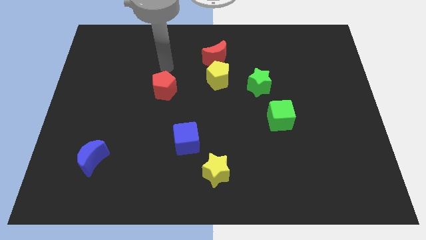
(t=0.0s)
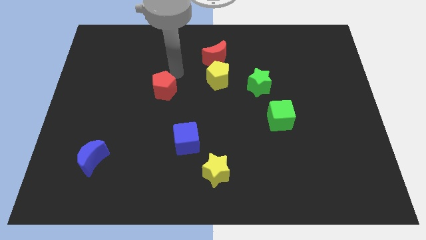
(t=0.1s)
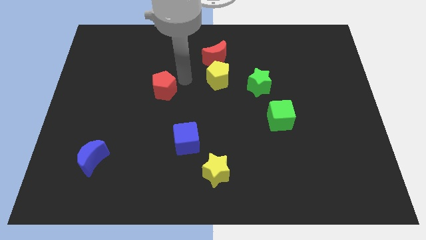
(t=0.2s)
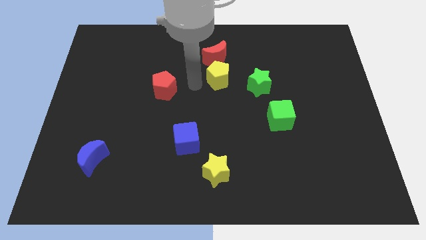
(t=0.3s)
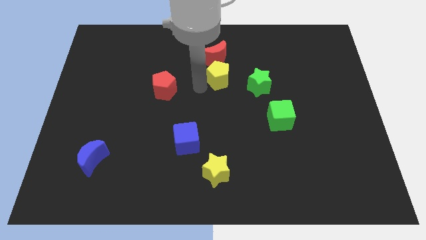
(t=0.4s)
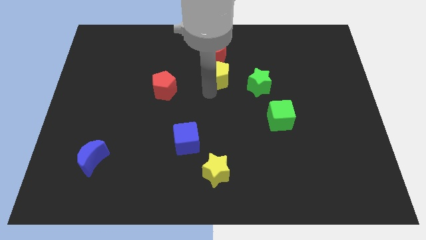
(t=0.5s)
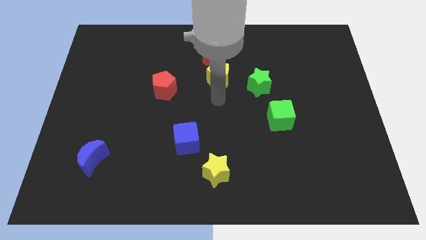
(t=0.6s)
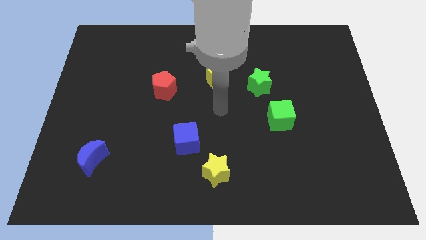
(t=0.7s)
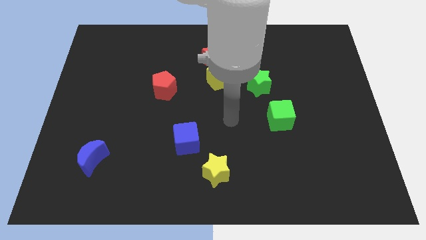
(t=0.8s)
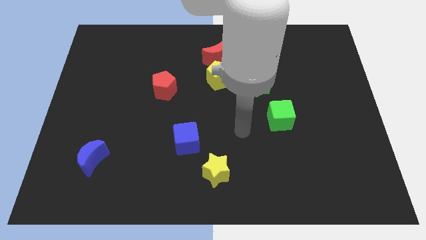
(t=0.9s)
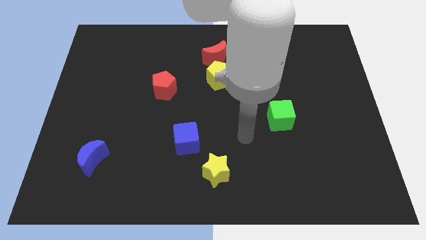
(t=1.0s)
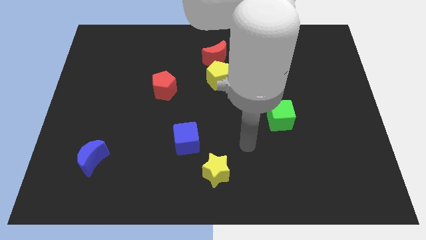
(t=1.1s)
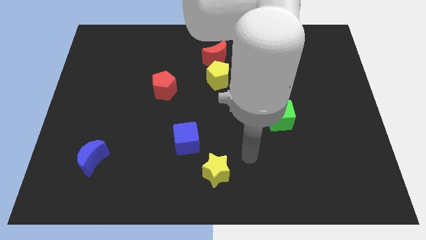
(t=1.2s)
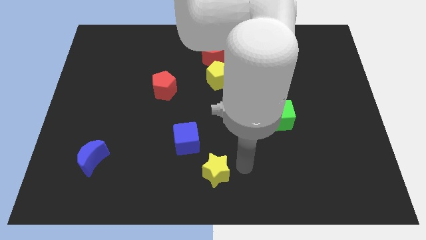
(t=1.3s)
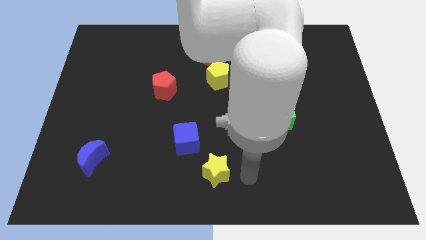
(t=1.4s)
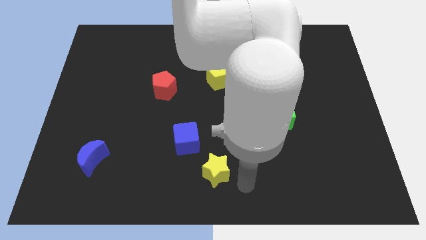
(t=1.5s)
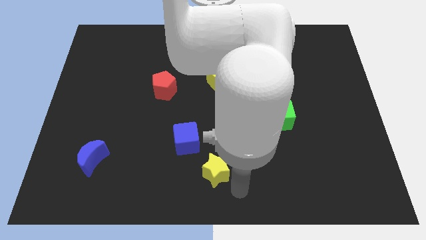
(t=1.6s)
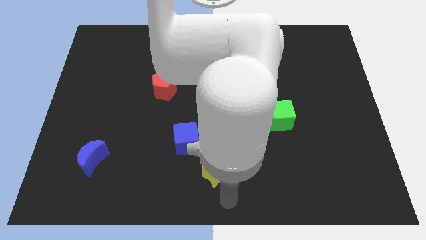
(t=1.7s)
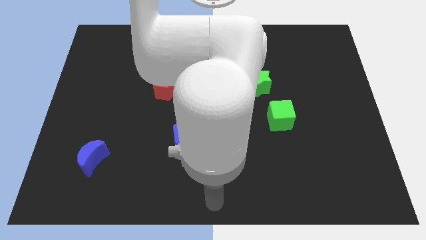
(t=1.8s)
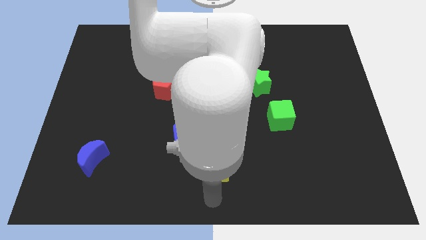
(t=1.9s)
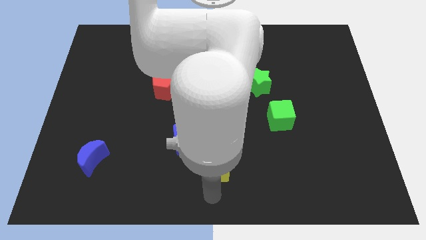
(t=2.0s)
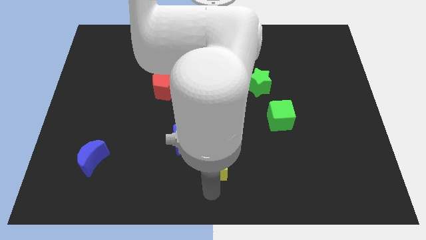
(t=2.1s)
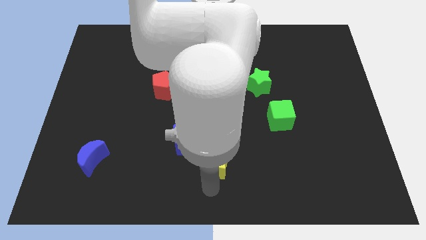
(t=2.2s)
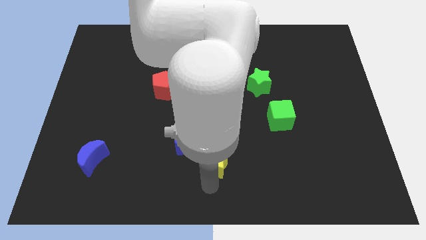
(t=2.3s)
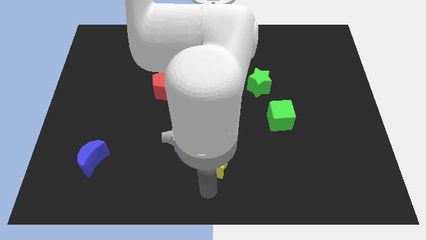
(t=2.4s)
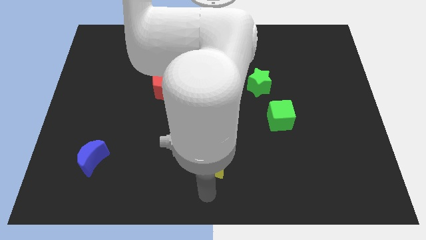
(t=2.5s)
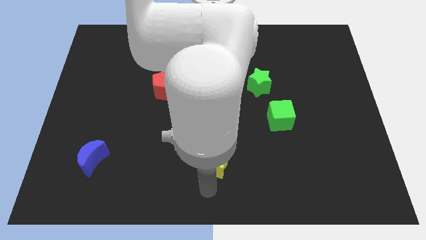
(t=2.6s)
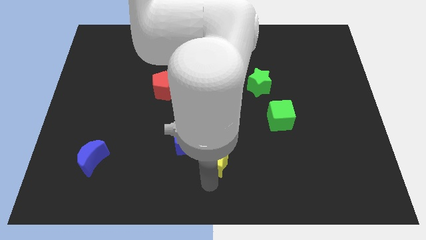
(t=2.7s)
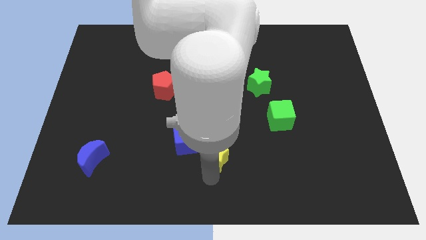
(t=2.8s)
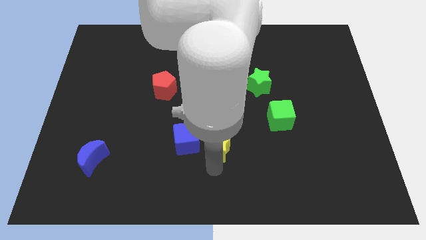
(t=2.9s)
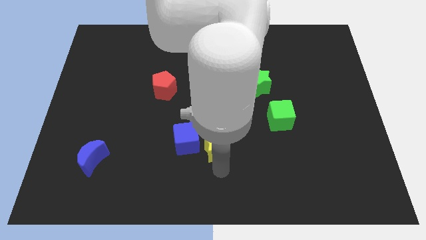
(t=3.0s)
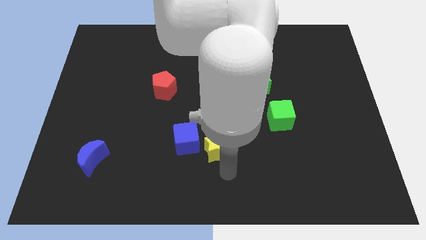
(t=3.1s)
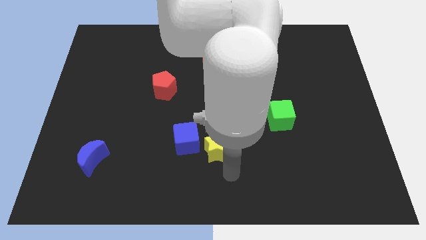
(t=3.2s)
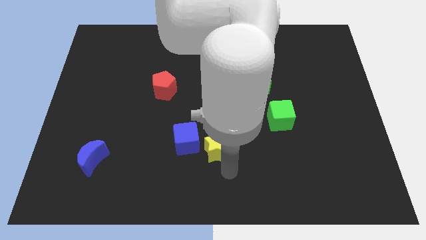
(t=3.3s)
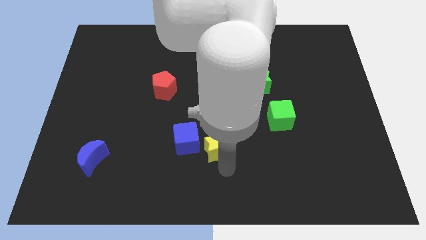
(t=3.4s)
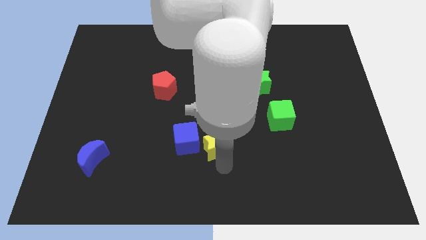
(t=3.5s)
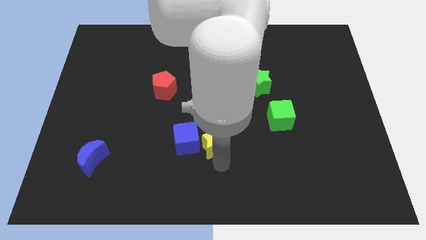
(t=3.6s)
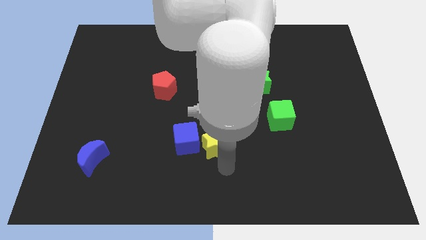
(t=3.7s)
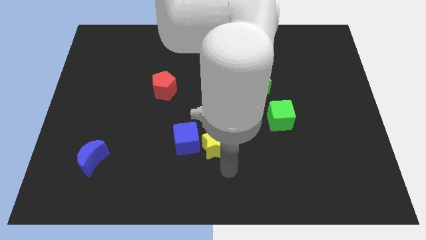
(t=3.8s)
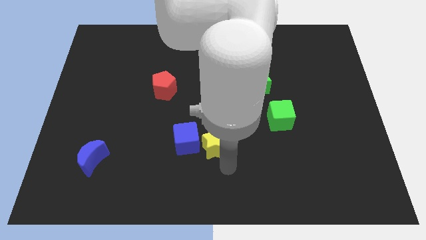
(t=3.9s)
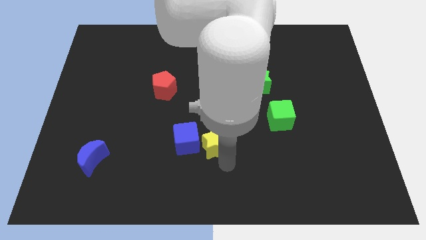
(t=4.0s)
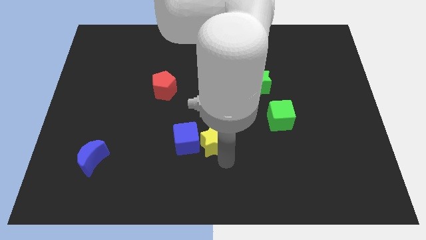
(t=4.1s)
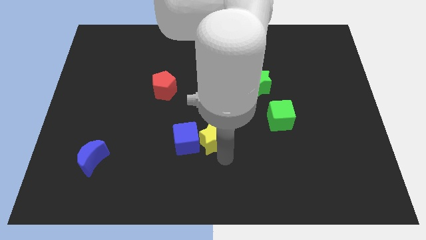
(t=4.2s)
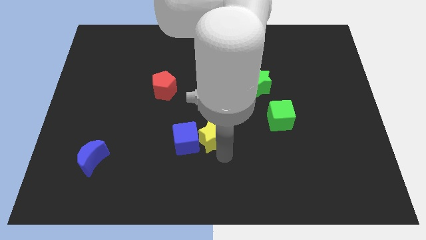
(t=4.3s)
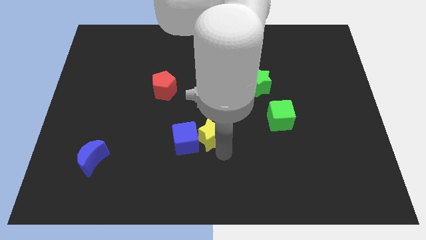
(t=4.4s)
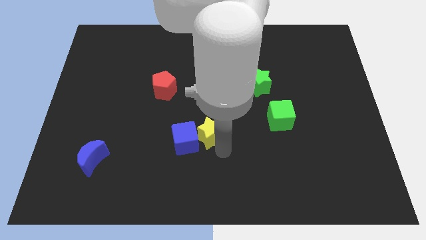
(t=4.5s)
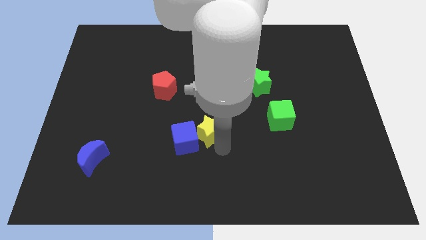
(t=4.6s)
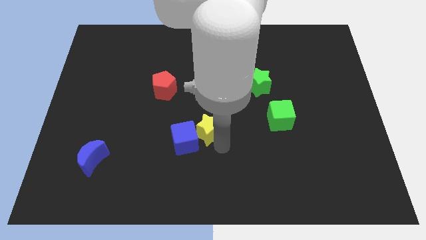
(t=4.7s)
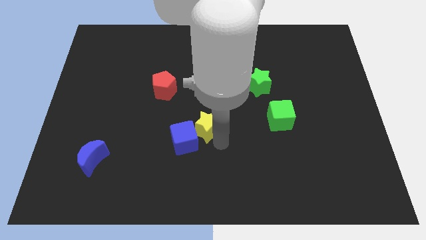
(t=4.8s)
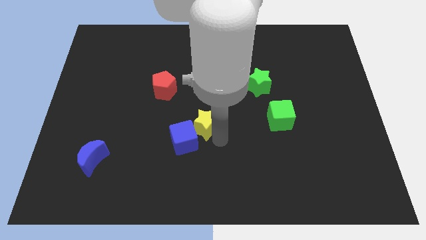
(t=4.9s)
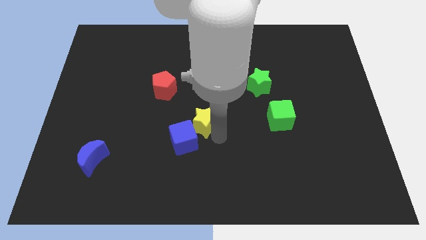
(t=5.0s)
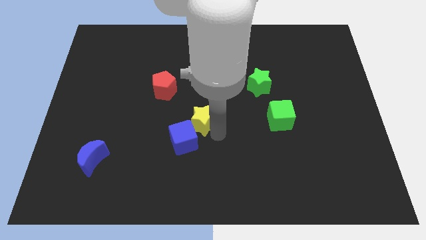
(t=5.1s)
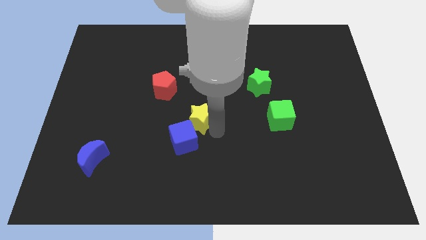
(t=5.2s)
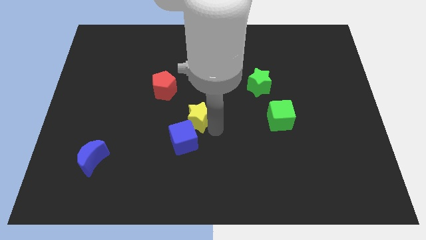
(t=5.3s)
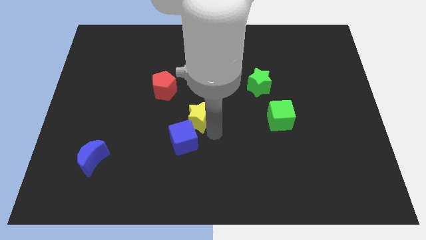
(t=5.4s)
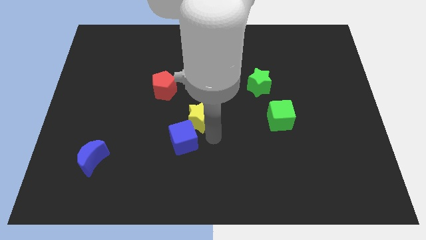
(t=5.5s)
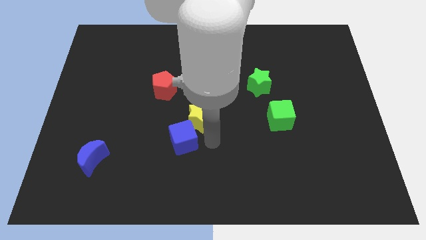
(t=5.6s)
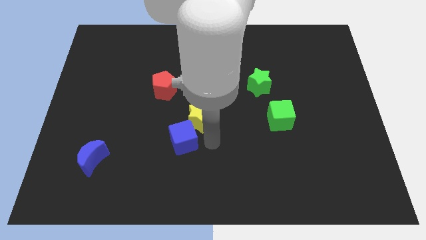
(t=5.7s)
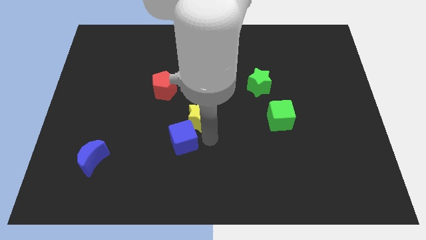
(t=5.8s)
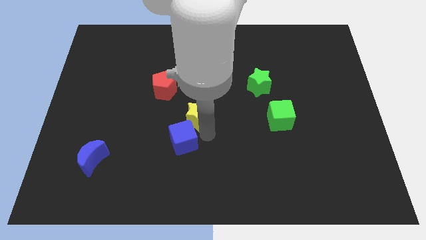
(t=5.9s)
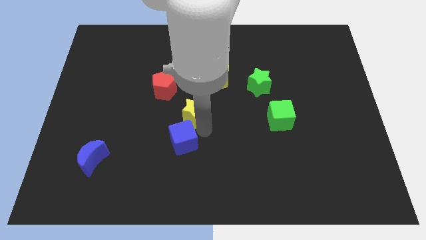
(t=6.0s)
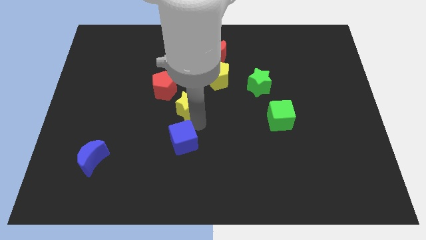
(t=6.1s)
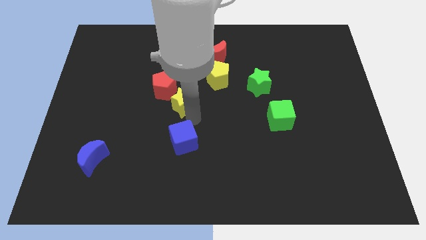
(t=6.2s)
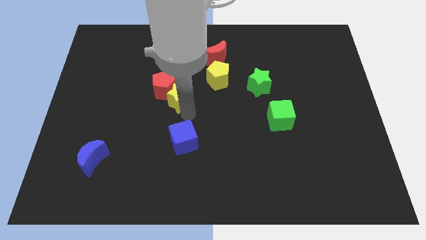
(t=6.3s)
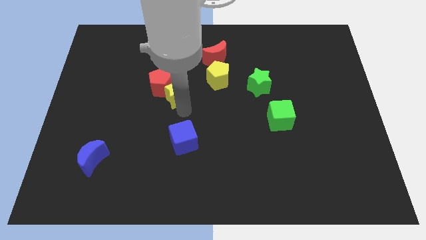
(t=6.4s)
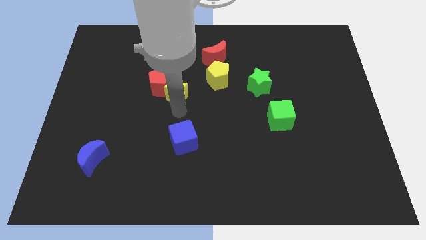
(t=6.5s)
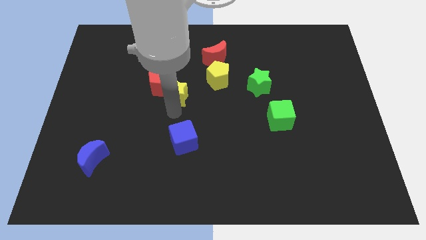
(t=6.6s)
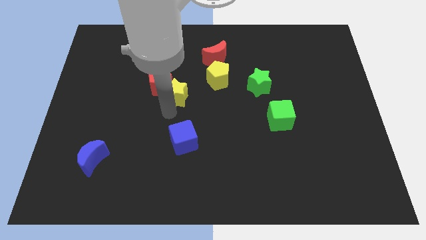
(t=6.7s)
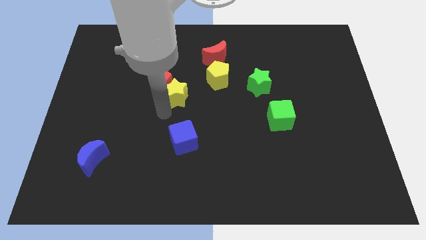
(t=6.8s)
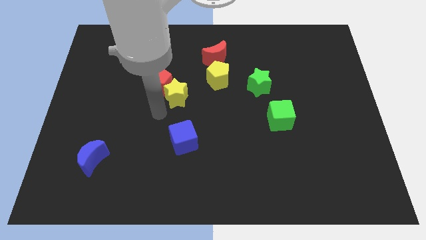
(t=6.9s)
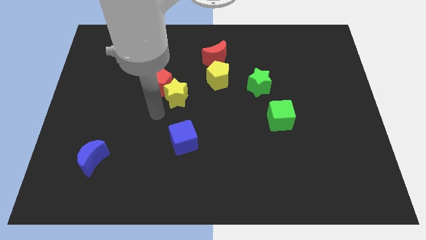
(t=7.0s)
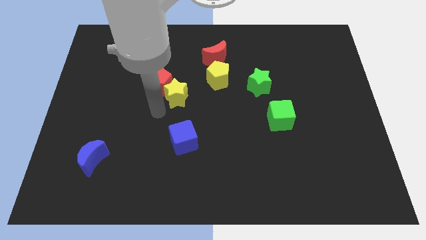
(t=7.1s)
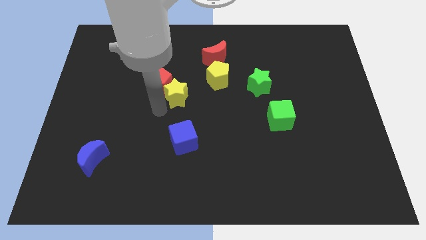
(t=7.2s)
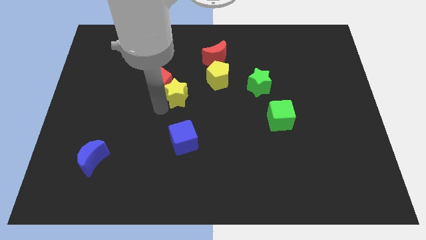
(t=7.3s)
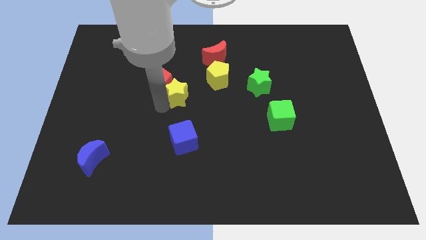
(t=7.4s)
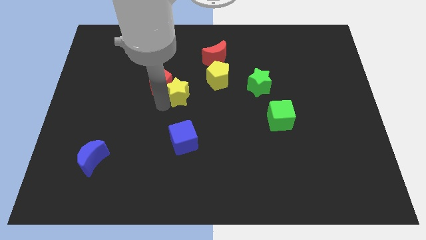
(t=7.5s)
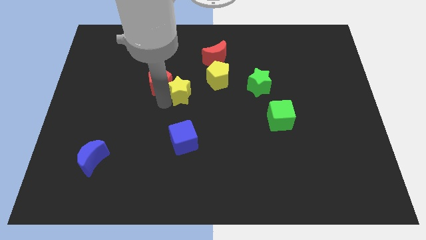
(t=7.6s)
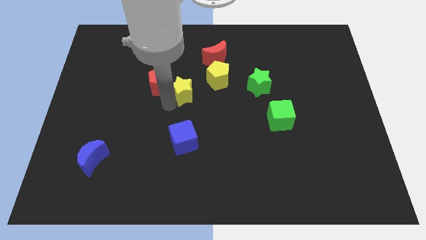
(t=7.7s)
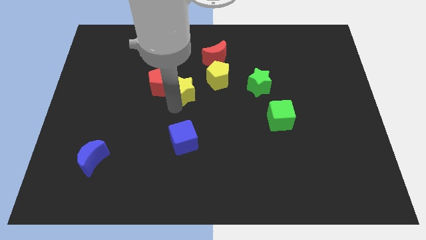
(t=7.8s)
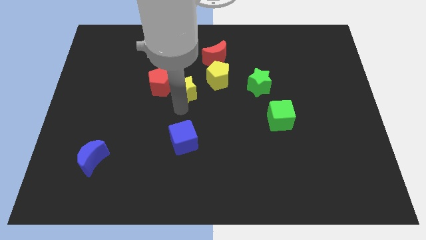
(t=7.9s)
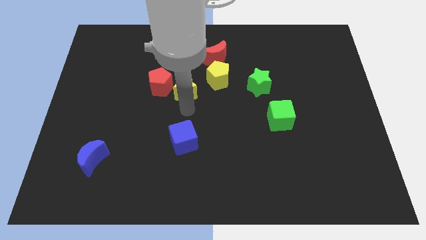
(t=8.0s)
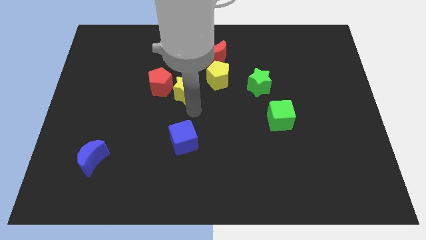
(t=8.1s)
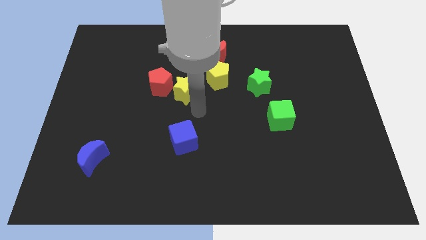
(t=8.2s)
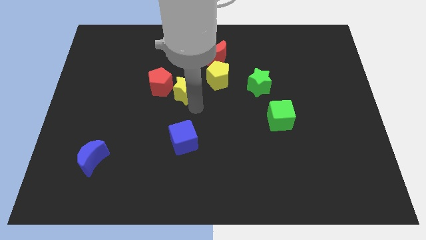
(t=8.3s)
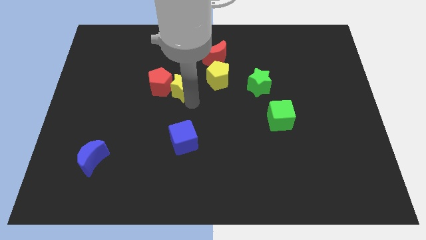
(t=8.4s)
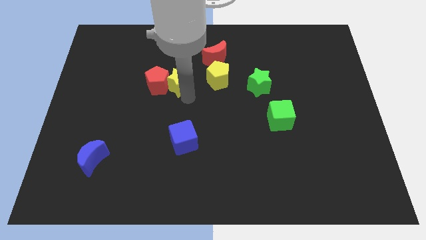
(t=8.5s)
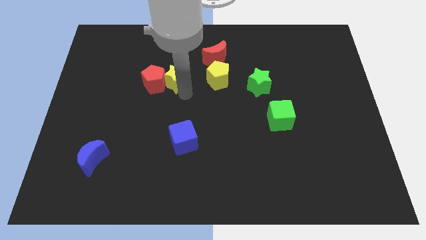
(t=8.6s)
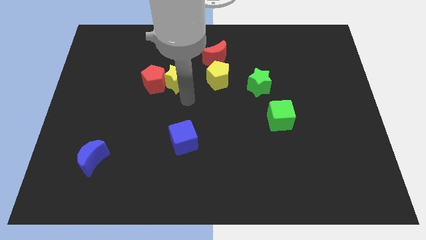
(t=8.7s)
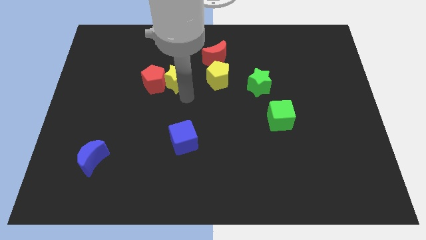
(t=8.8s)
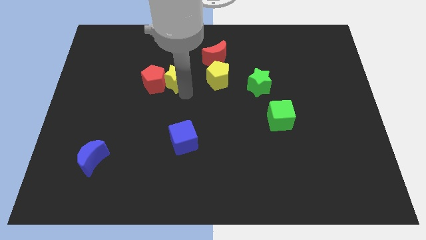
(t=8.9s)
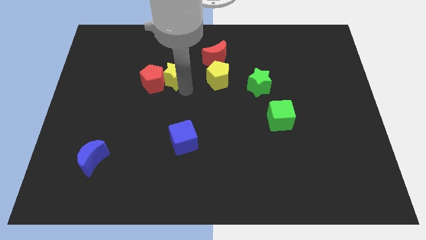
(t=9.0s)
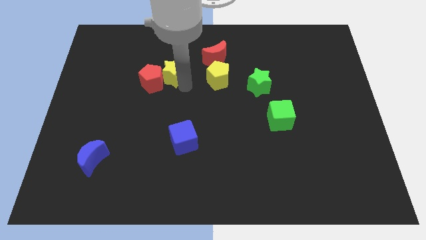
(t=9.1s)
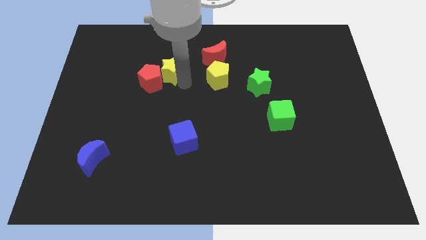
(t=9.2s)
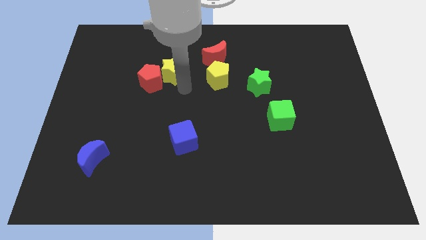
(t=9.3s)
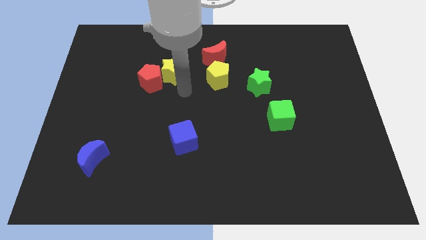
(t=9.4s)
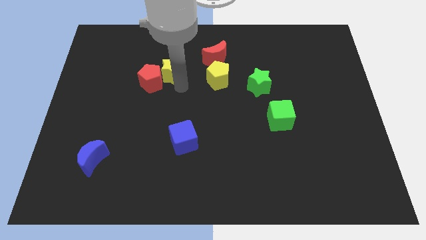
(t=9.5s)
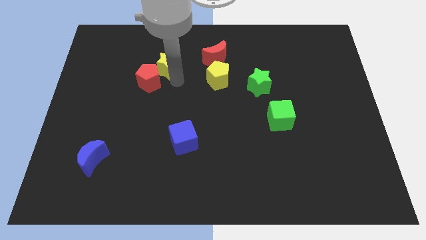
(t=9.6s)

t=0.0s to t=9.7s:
push the yellow star above the red pentagon
